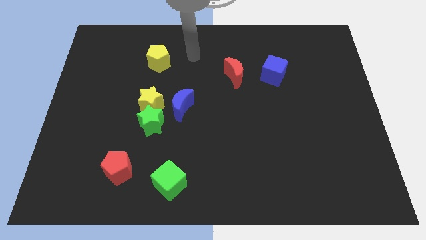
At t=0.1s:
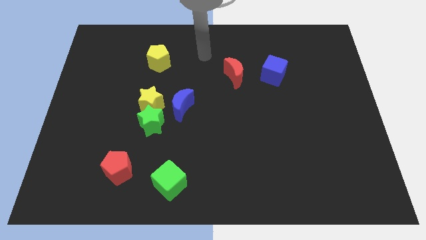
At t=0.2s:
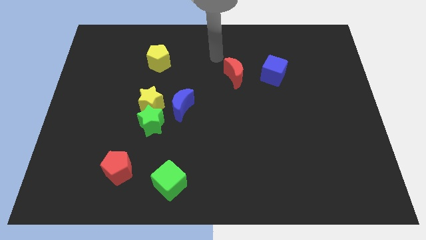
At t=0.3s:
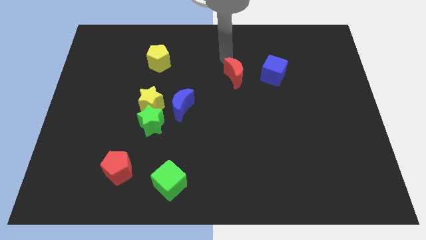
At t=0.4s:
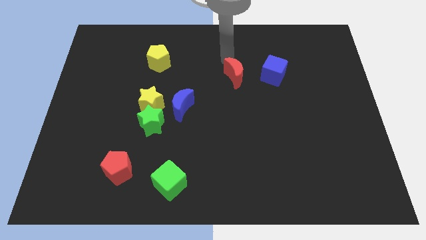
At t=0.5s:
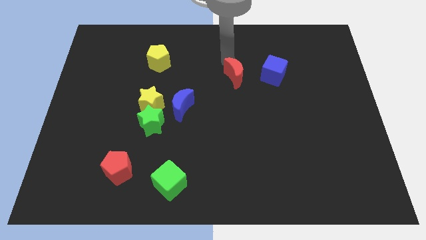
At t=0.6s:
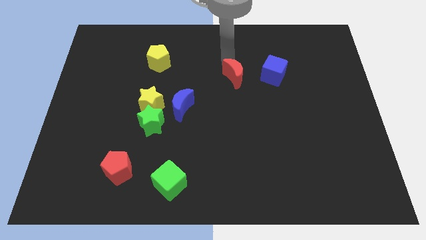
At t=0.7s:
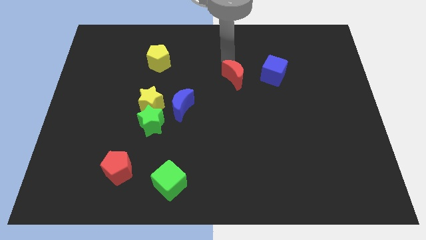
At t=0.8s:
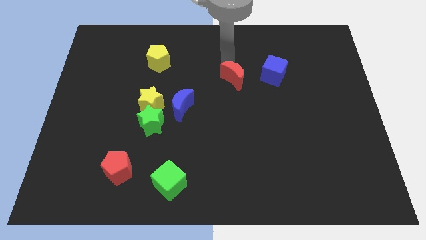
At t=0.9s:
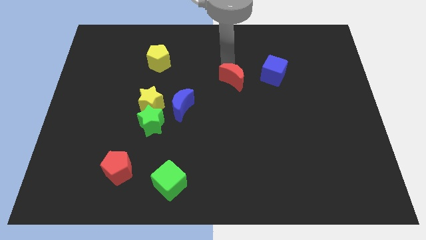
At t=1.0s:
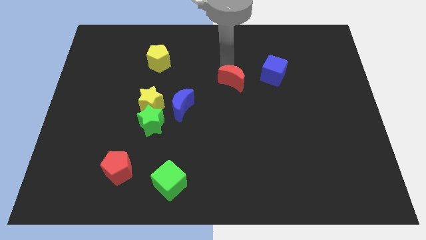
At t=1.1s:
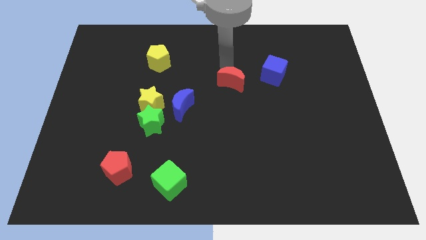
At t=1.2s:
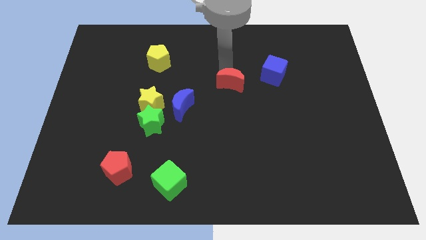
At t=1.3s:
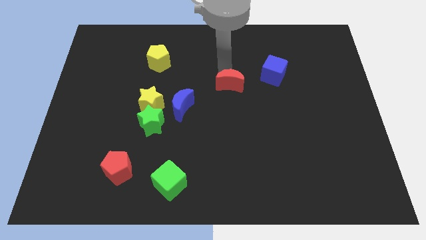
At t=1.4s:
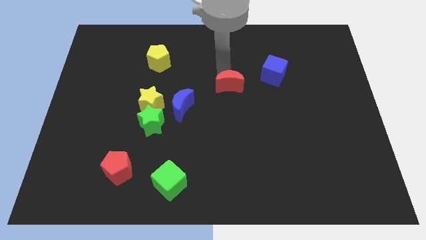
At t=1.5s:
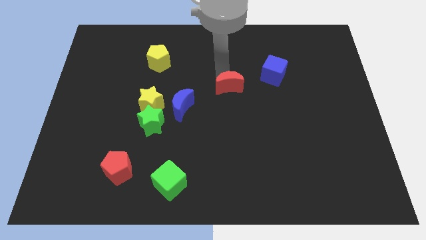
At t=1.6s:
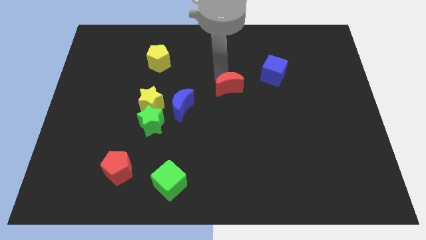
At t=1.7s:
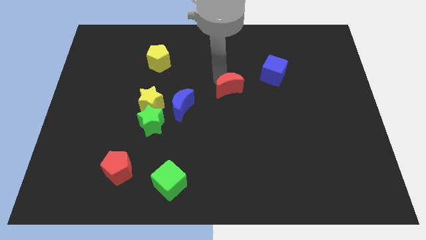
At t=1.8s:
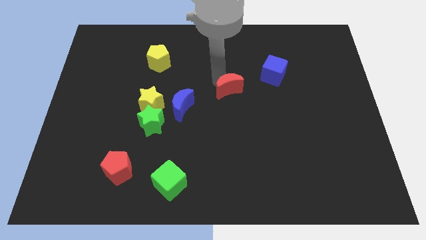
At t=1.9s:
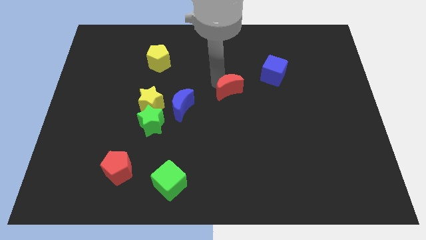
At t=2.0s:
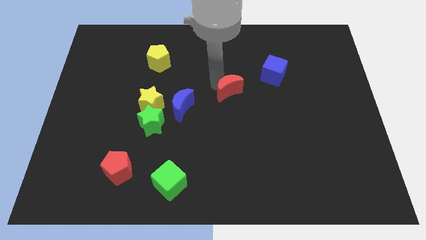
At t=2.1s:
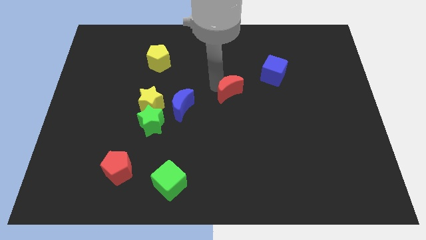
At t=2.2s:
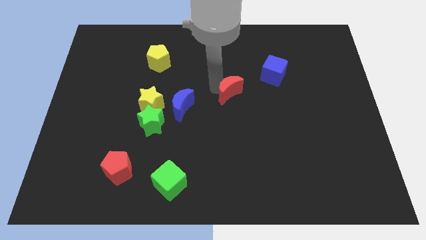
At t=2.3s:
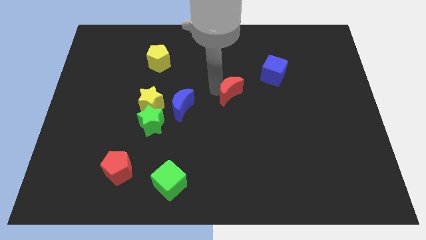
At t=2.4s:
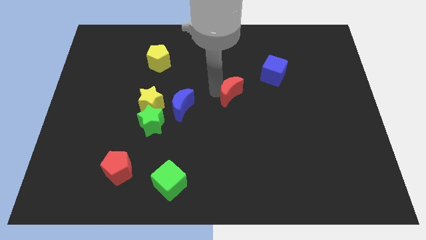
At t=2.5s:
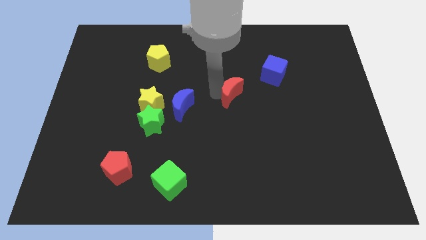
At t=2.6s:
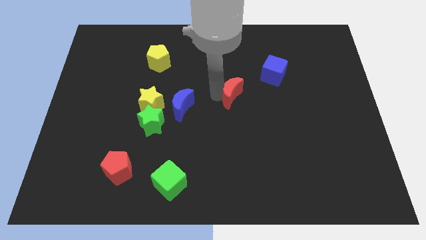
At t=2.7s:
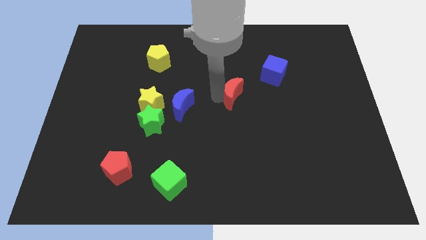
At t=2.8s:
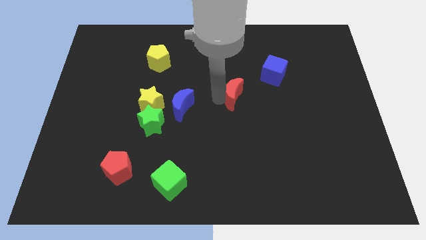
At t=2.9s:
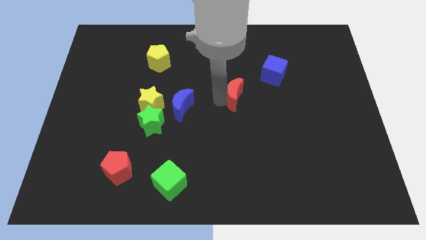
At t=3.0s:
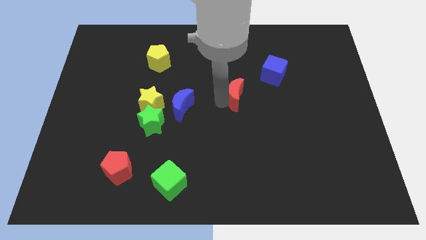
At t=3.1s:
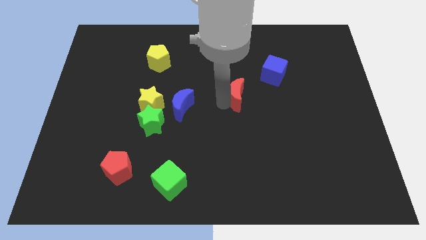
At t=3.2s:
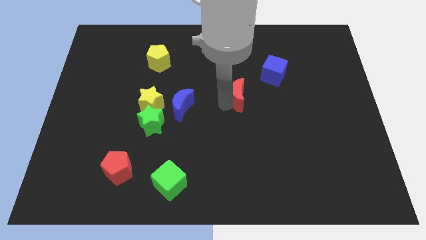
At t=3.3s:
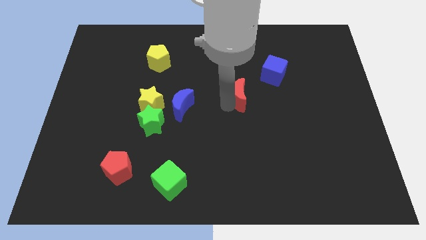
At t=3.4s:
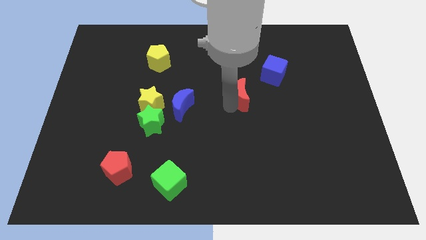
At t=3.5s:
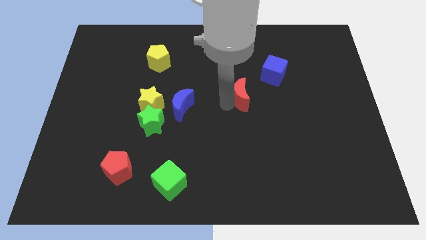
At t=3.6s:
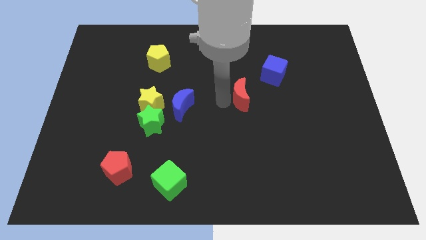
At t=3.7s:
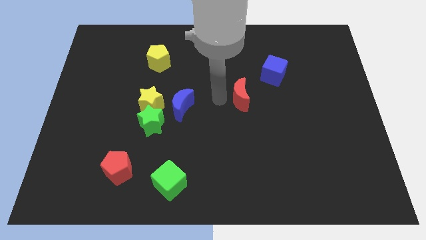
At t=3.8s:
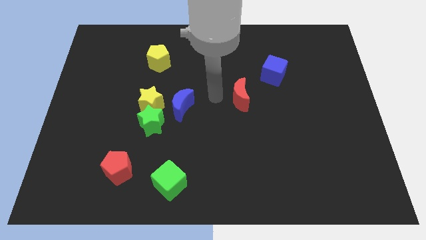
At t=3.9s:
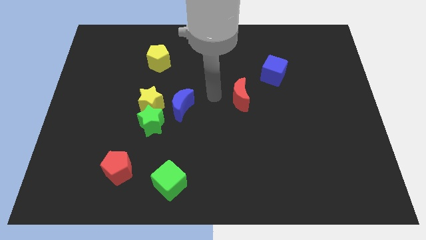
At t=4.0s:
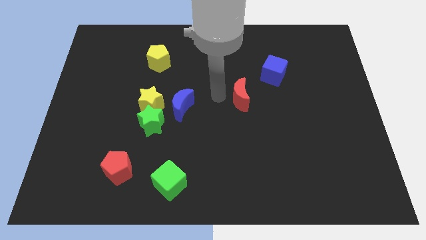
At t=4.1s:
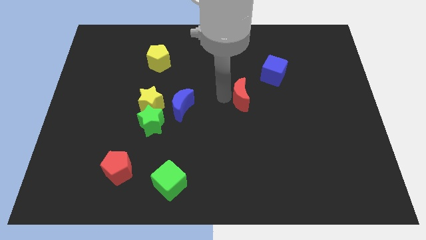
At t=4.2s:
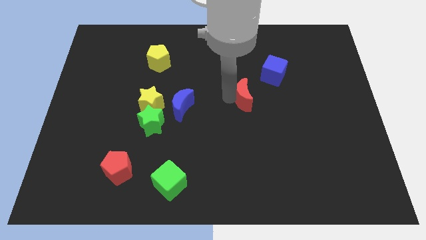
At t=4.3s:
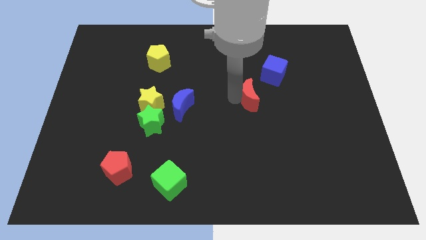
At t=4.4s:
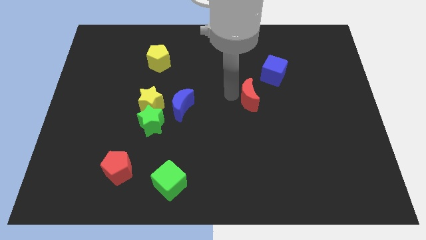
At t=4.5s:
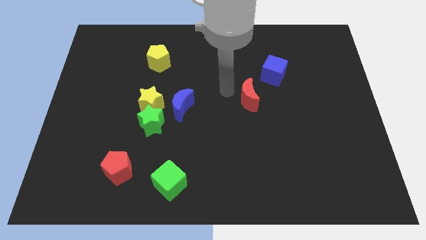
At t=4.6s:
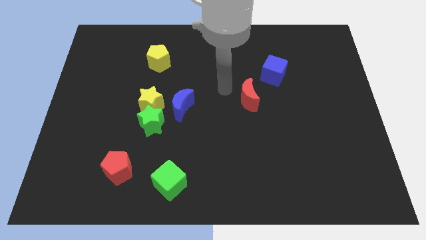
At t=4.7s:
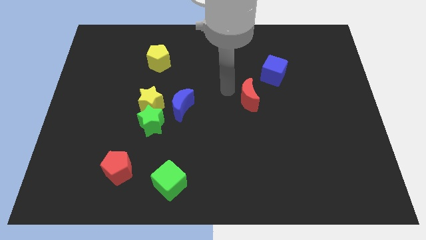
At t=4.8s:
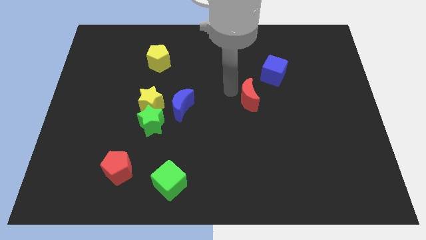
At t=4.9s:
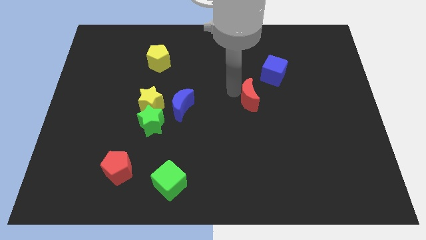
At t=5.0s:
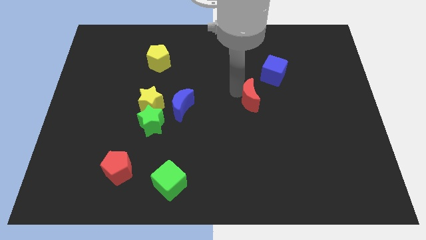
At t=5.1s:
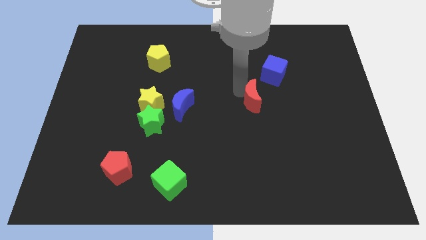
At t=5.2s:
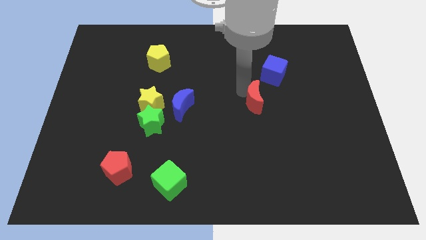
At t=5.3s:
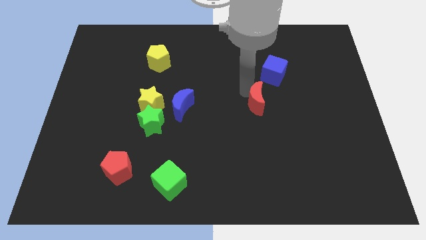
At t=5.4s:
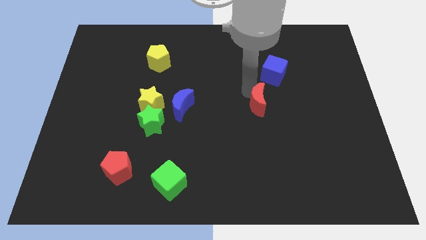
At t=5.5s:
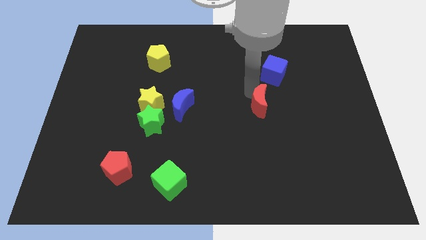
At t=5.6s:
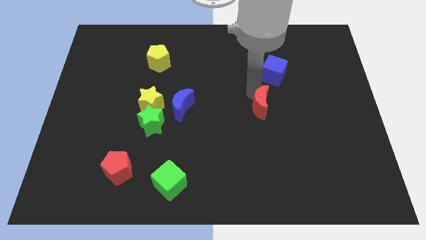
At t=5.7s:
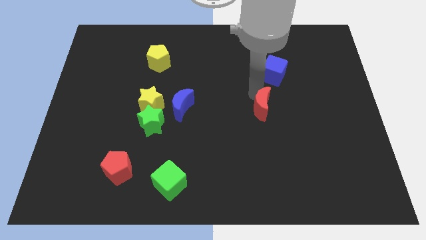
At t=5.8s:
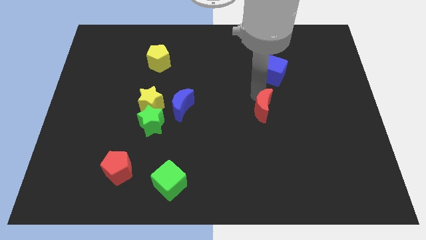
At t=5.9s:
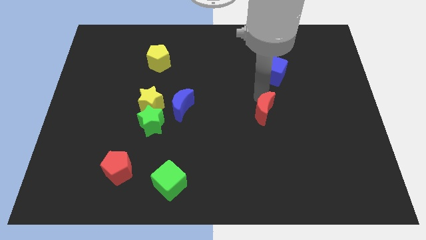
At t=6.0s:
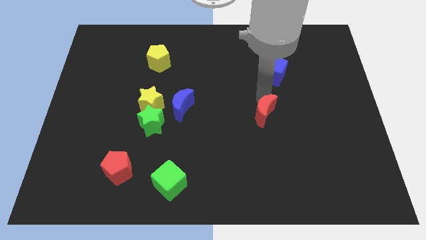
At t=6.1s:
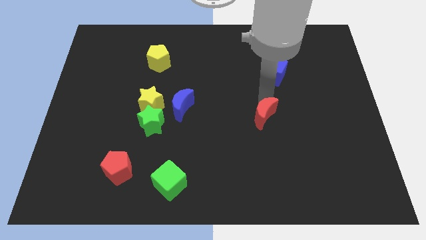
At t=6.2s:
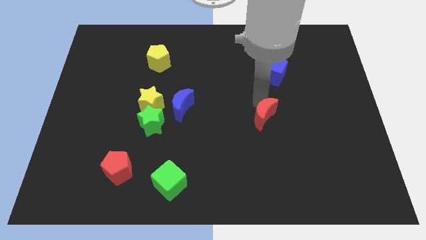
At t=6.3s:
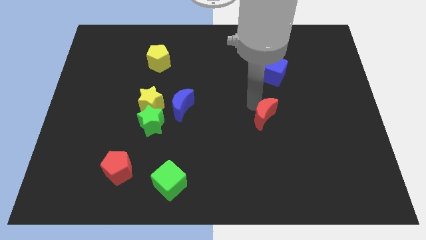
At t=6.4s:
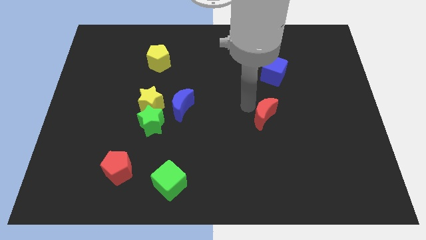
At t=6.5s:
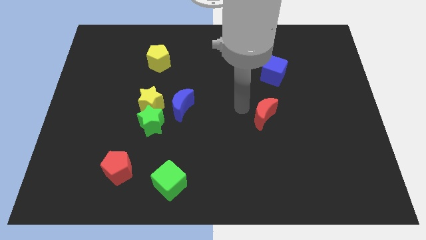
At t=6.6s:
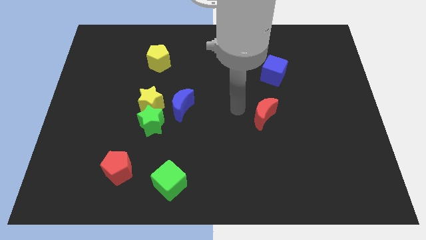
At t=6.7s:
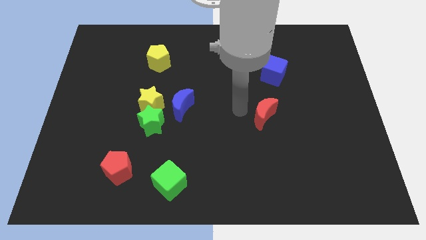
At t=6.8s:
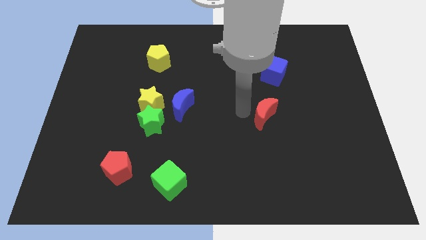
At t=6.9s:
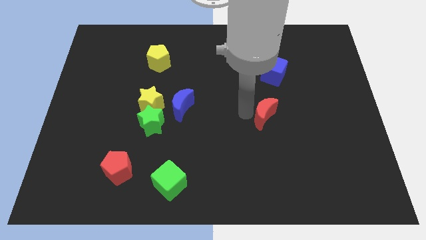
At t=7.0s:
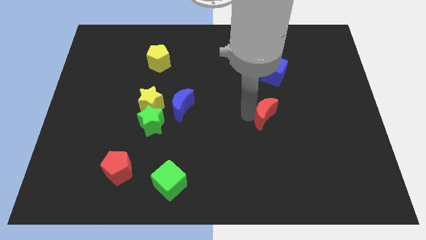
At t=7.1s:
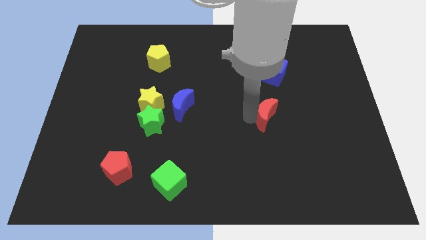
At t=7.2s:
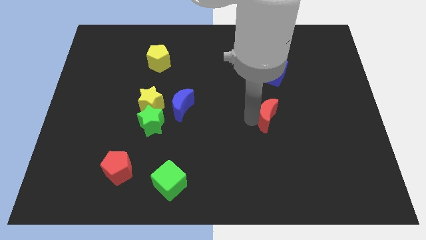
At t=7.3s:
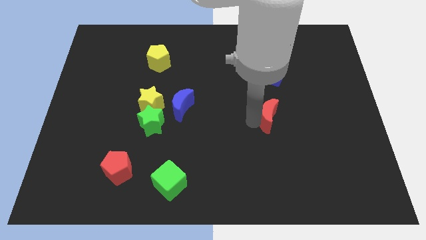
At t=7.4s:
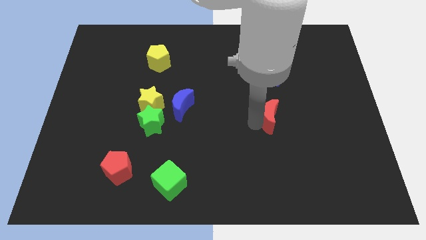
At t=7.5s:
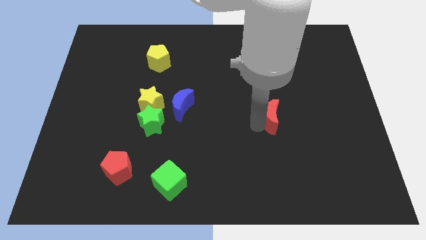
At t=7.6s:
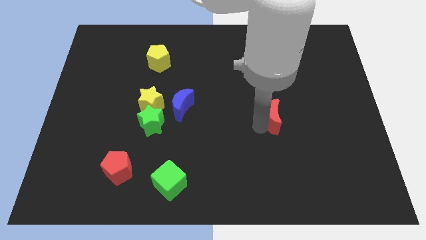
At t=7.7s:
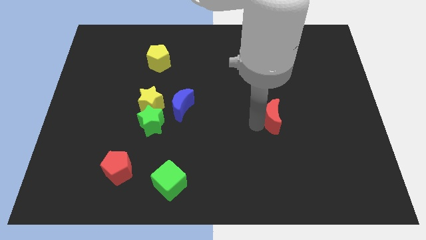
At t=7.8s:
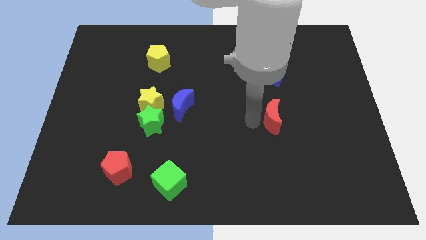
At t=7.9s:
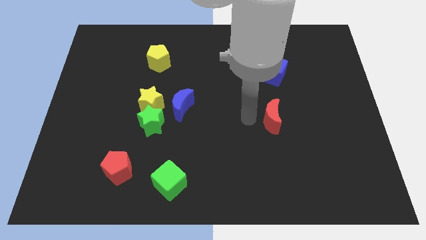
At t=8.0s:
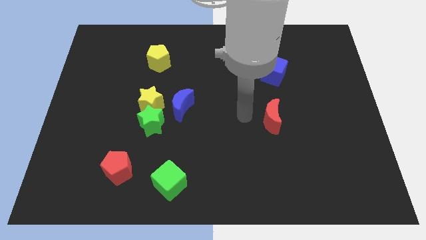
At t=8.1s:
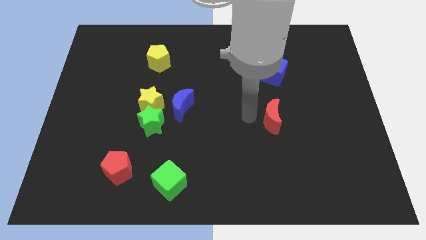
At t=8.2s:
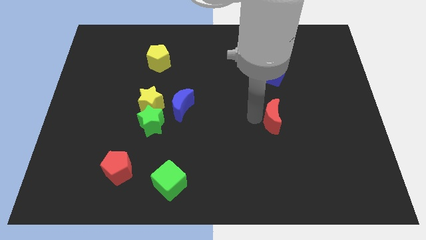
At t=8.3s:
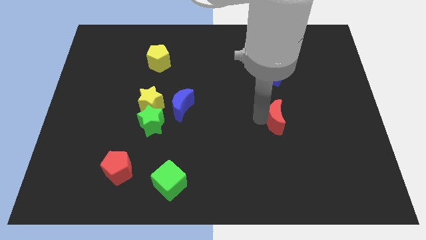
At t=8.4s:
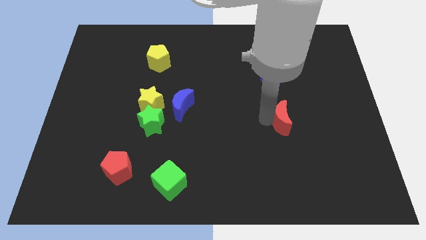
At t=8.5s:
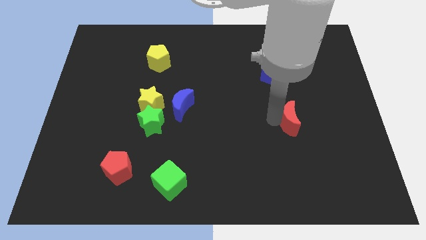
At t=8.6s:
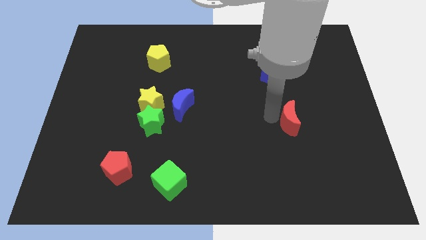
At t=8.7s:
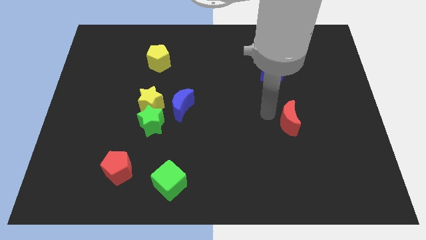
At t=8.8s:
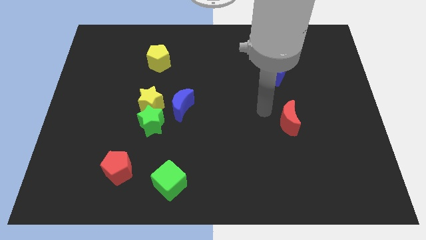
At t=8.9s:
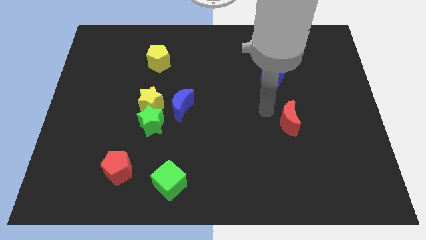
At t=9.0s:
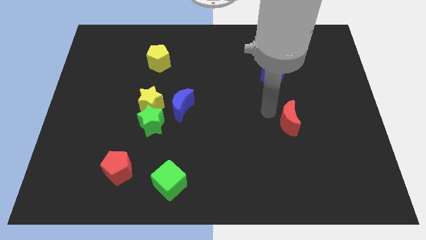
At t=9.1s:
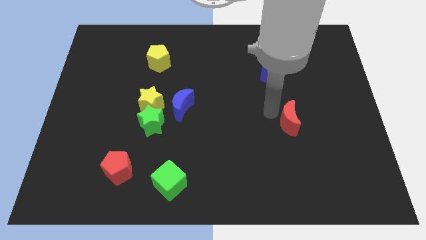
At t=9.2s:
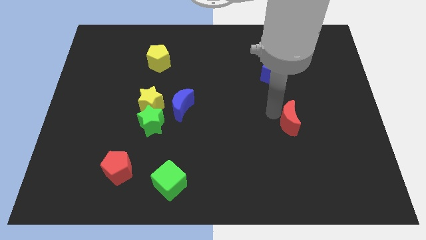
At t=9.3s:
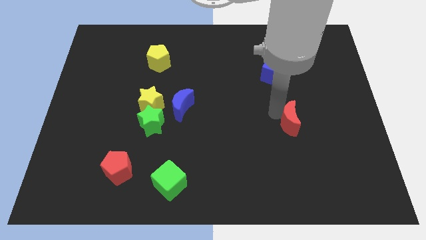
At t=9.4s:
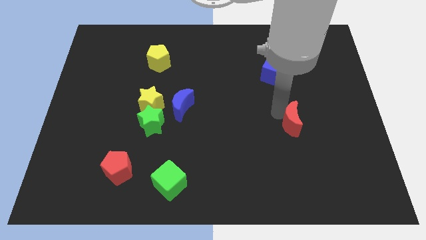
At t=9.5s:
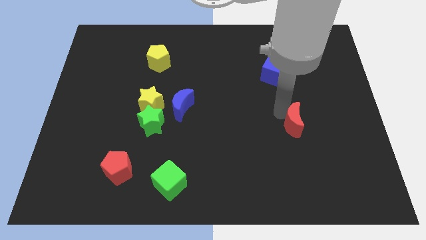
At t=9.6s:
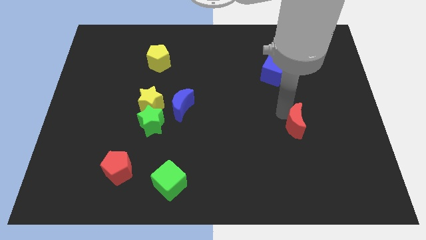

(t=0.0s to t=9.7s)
move the red moon downwards and then right
